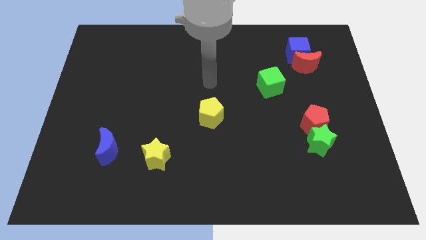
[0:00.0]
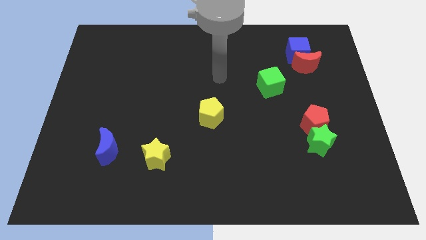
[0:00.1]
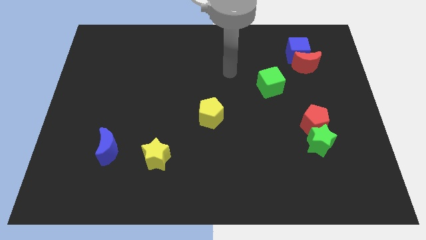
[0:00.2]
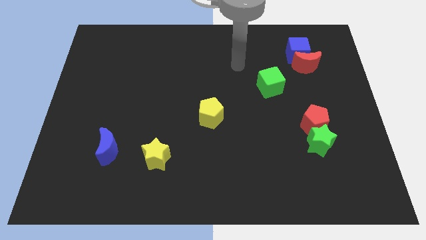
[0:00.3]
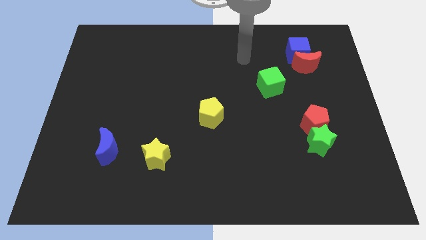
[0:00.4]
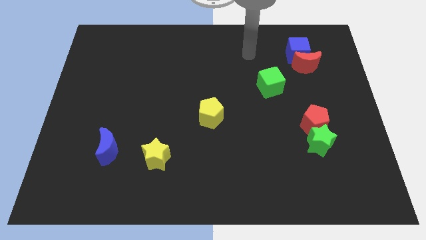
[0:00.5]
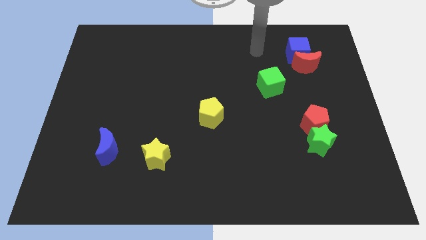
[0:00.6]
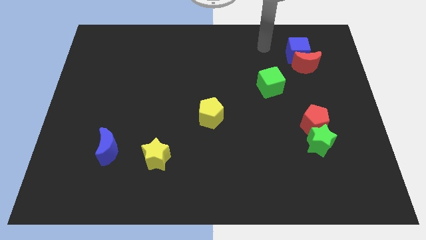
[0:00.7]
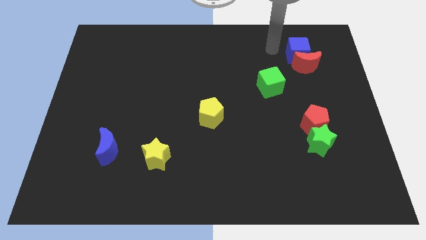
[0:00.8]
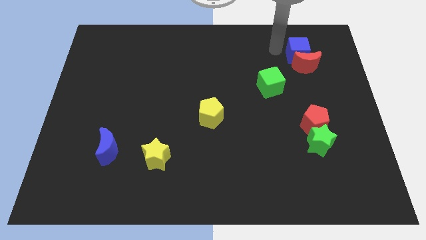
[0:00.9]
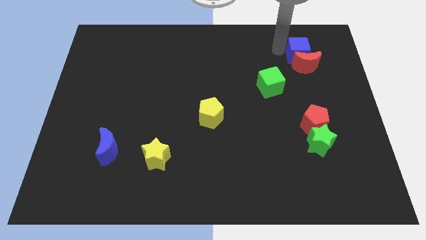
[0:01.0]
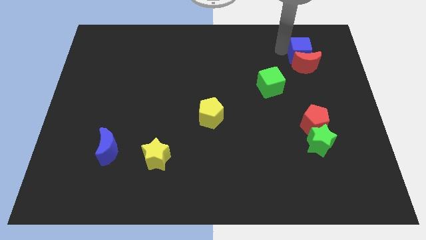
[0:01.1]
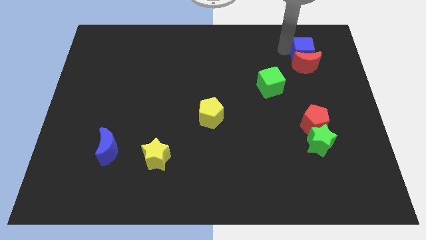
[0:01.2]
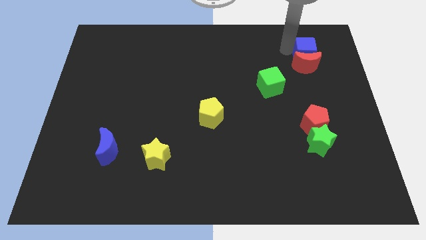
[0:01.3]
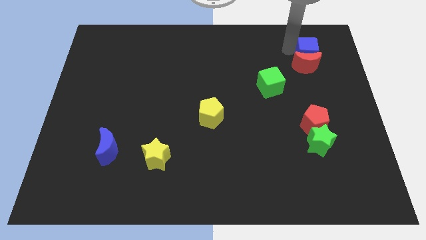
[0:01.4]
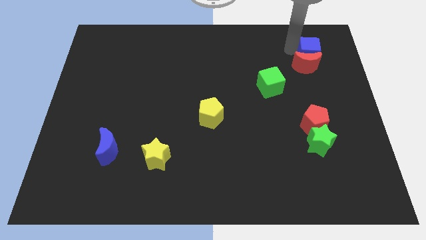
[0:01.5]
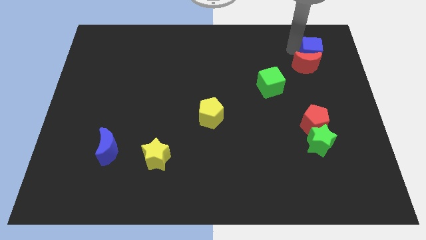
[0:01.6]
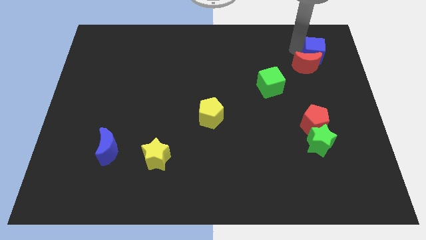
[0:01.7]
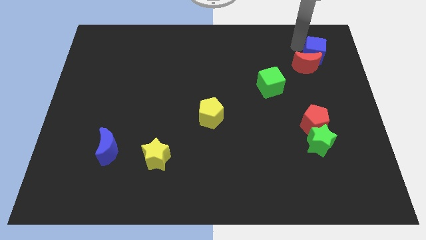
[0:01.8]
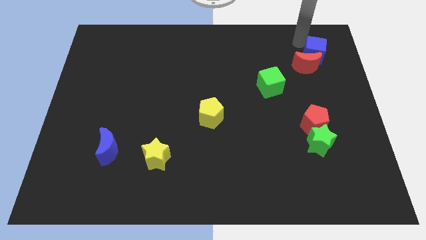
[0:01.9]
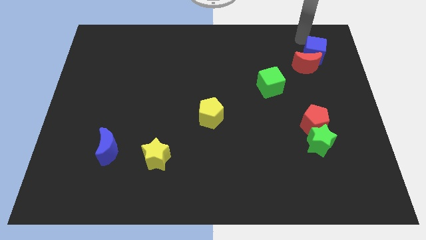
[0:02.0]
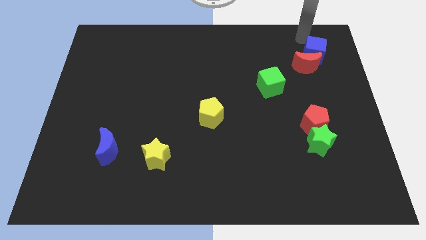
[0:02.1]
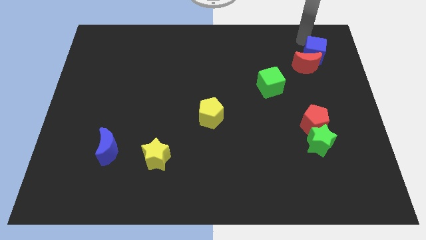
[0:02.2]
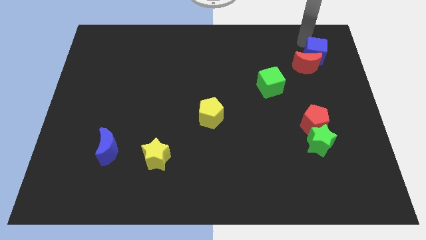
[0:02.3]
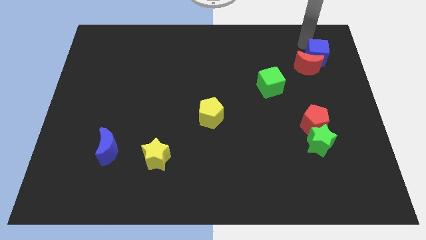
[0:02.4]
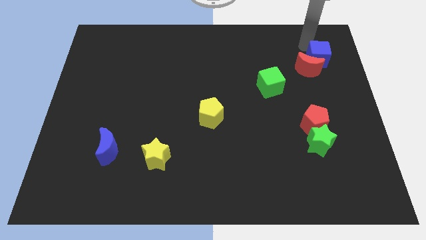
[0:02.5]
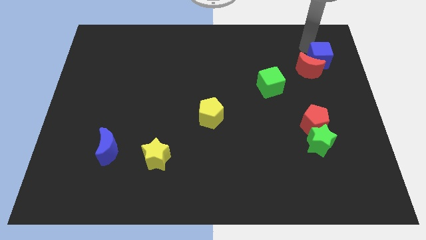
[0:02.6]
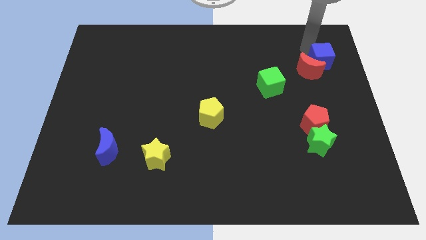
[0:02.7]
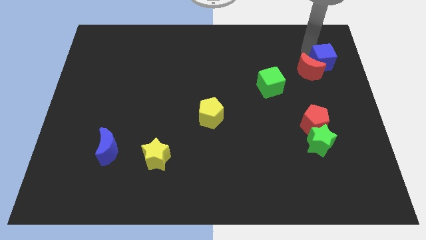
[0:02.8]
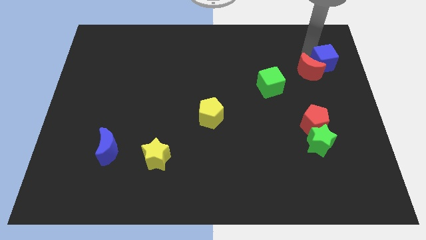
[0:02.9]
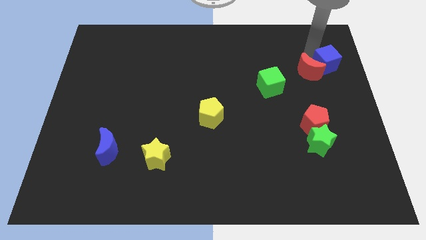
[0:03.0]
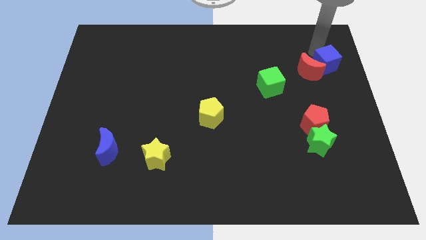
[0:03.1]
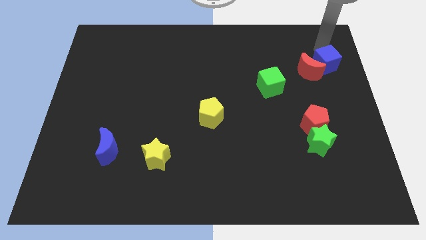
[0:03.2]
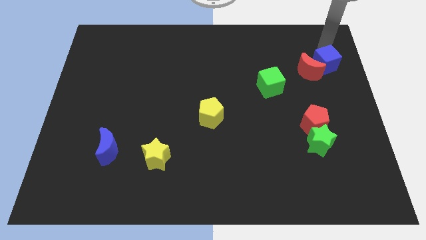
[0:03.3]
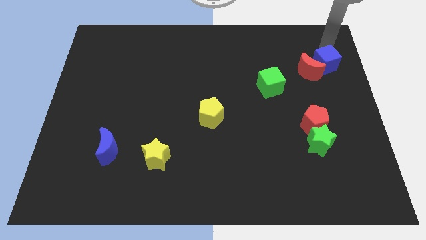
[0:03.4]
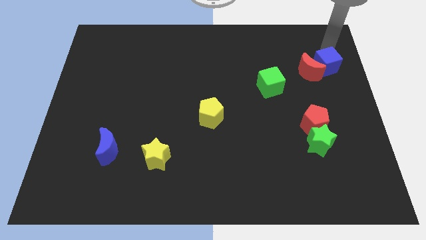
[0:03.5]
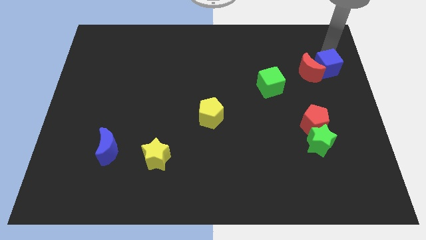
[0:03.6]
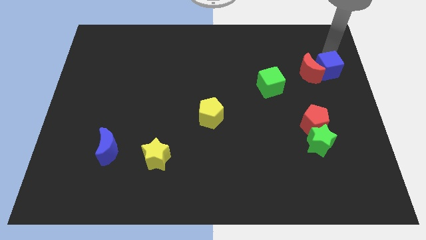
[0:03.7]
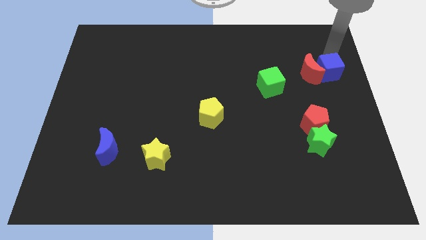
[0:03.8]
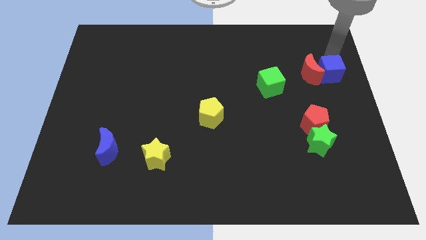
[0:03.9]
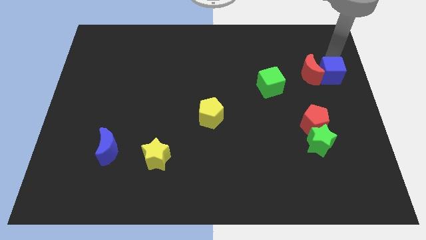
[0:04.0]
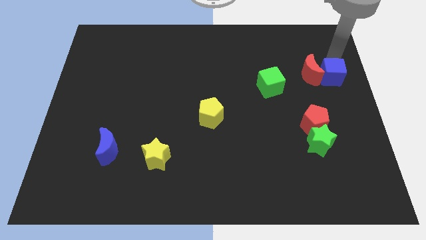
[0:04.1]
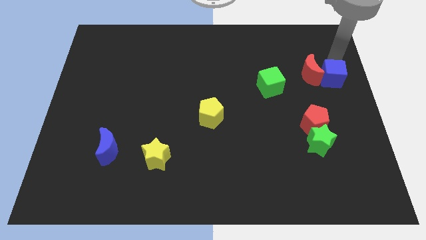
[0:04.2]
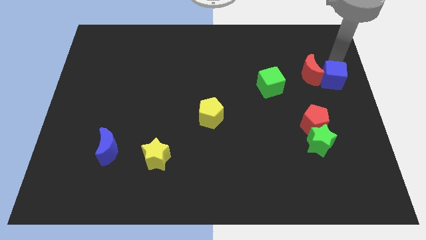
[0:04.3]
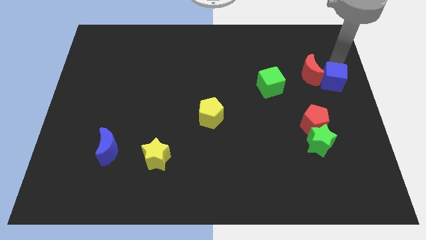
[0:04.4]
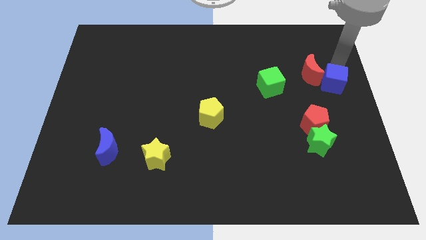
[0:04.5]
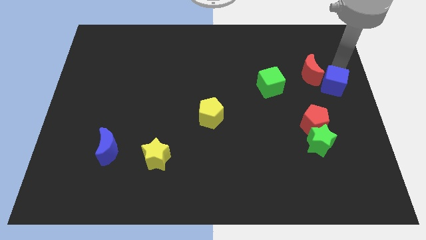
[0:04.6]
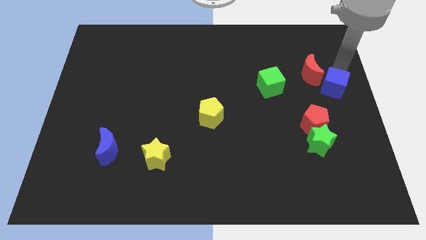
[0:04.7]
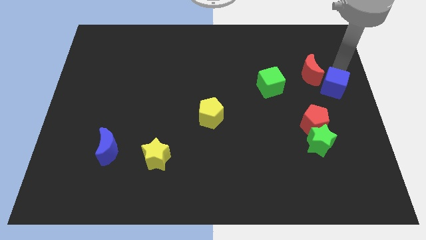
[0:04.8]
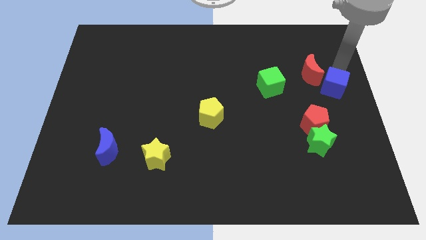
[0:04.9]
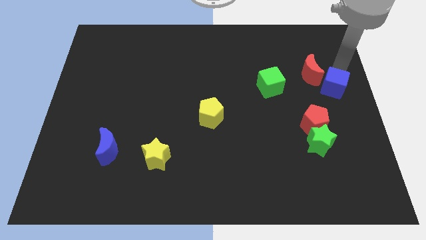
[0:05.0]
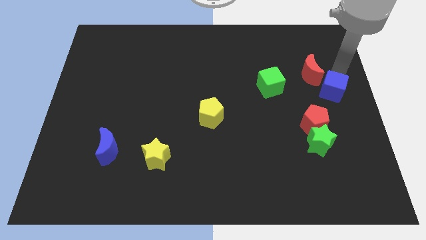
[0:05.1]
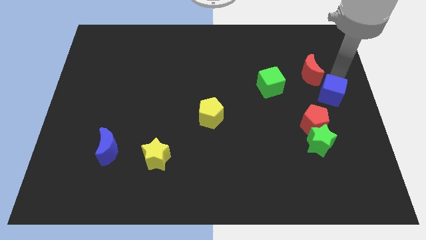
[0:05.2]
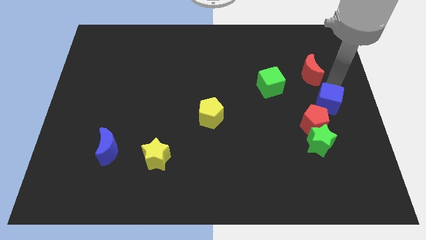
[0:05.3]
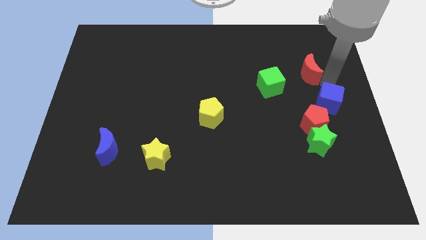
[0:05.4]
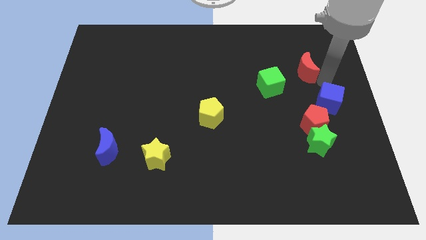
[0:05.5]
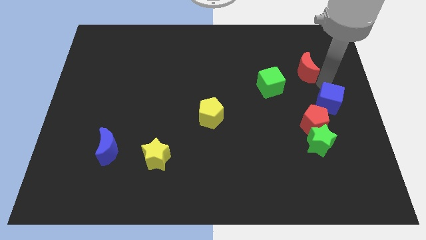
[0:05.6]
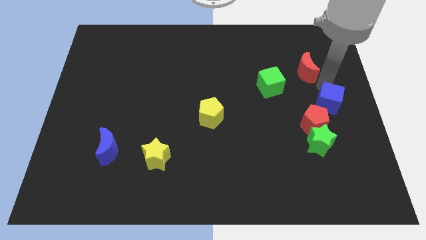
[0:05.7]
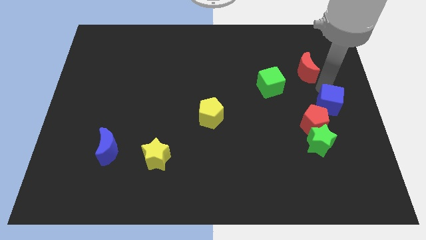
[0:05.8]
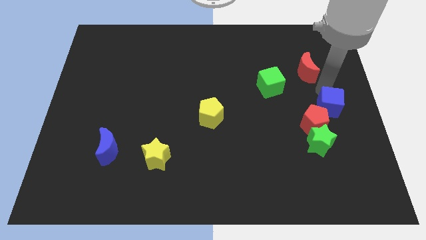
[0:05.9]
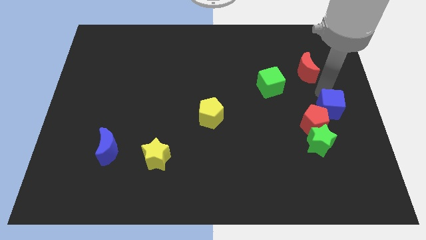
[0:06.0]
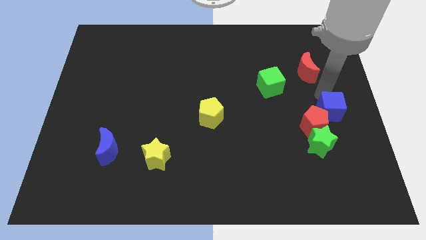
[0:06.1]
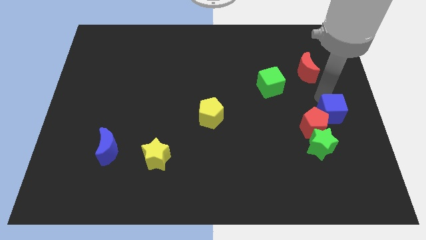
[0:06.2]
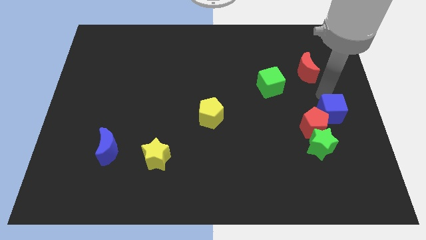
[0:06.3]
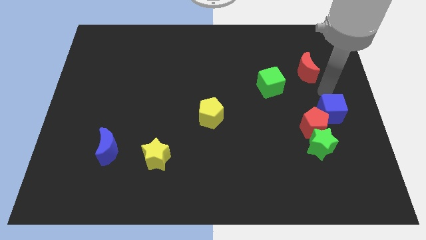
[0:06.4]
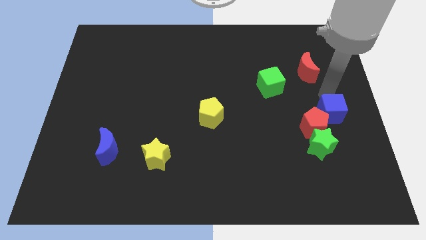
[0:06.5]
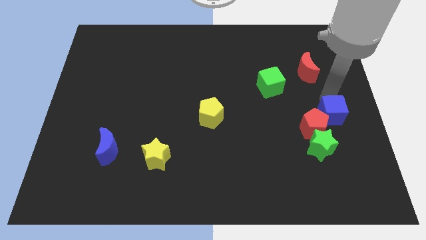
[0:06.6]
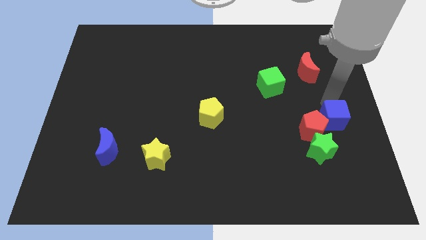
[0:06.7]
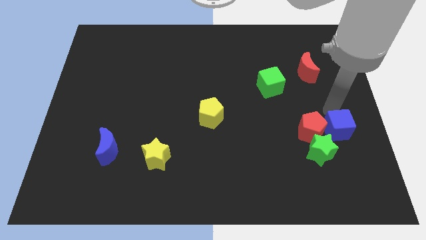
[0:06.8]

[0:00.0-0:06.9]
push the blue cube to the bottom right side of the red pentagon
